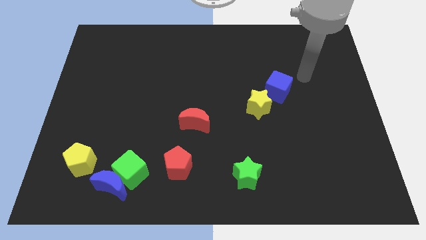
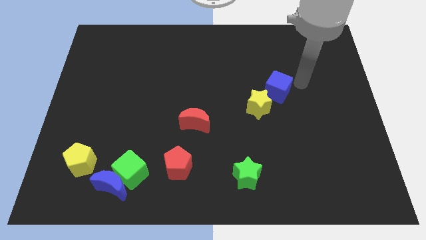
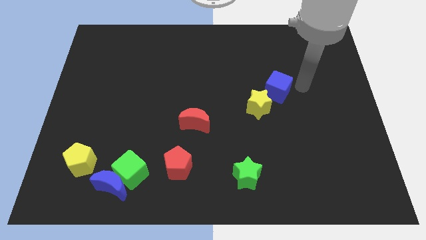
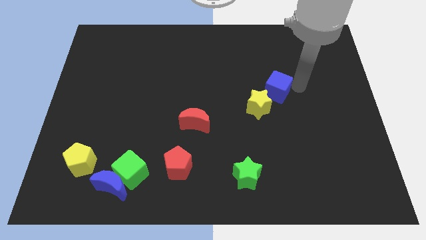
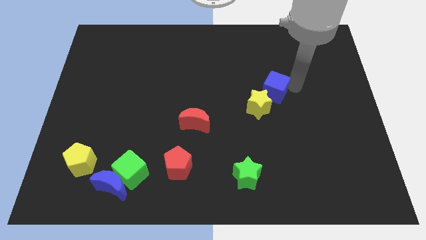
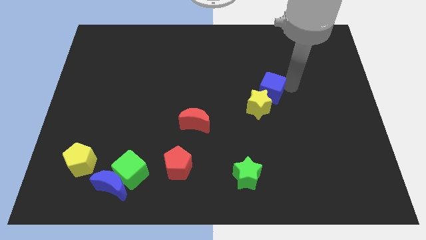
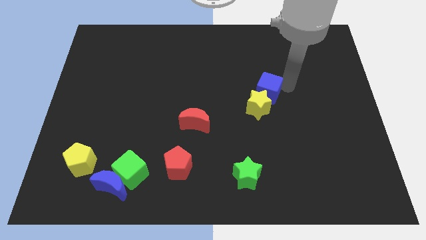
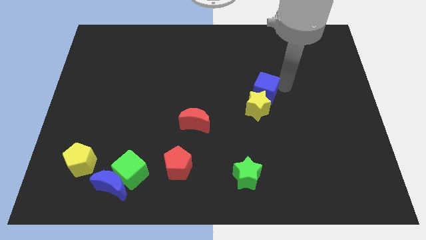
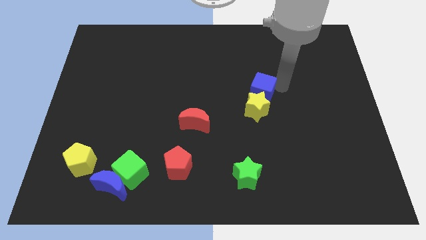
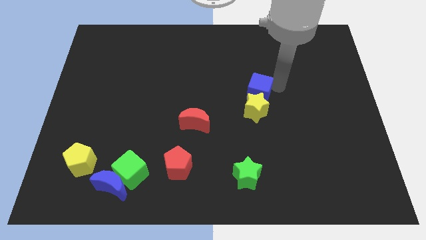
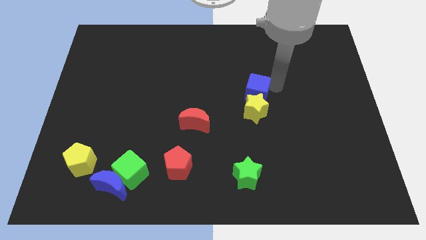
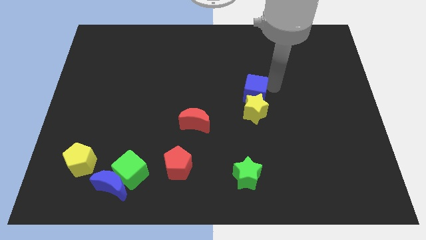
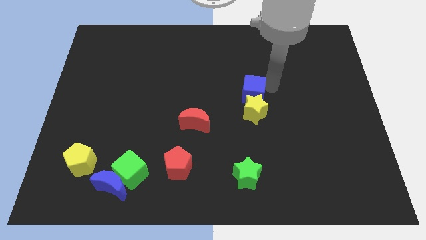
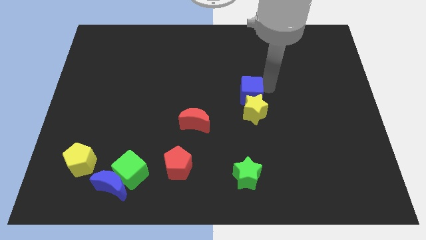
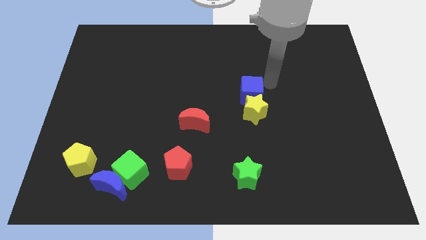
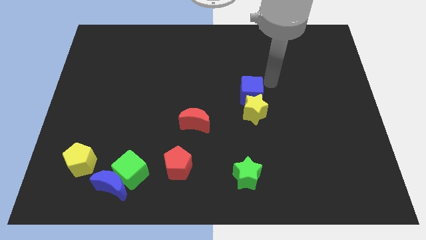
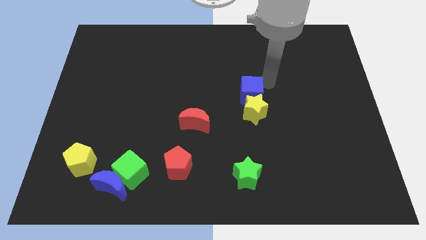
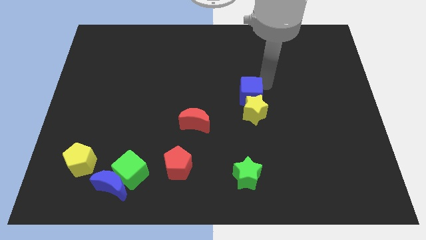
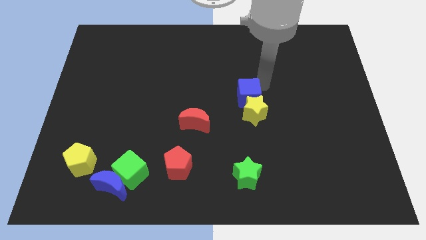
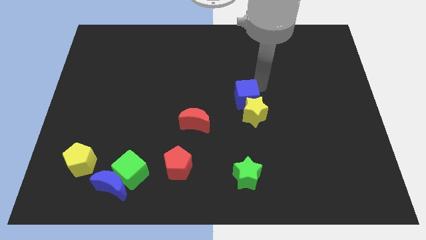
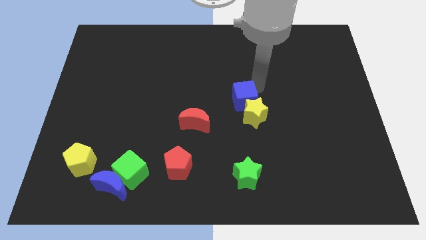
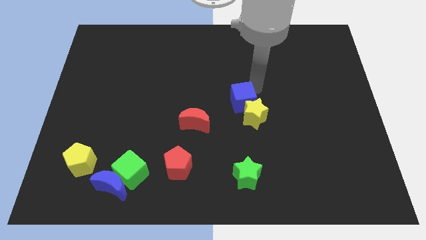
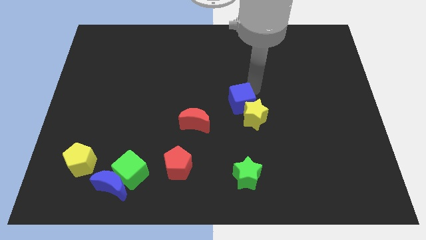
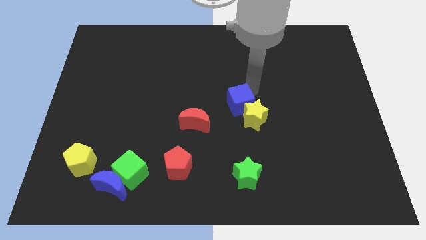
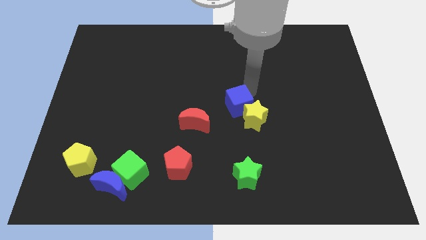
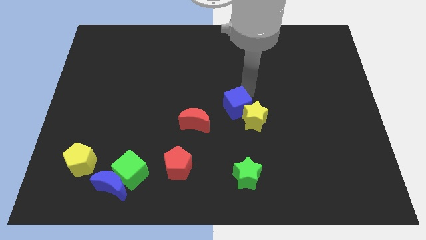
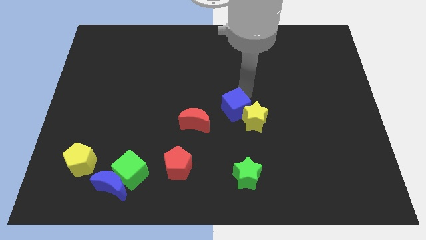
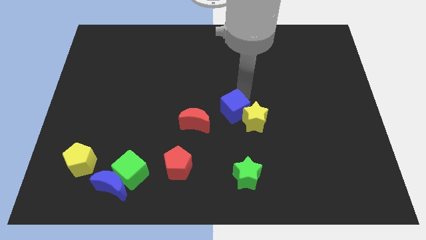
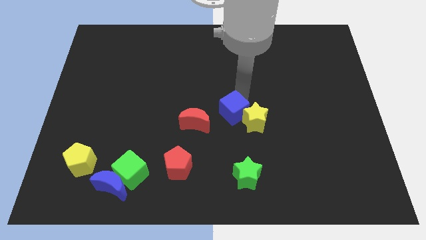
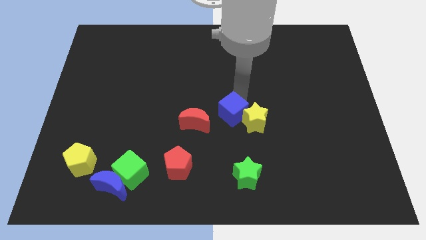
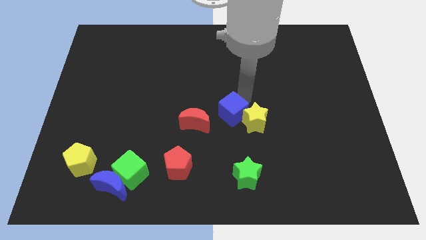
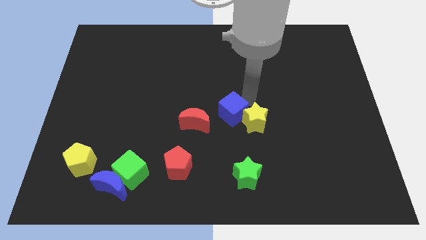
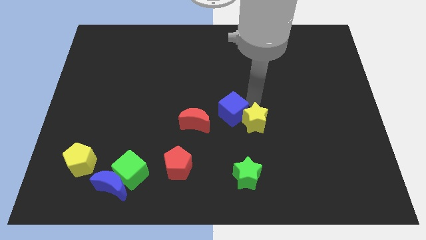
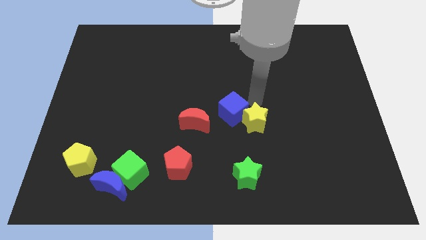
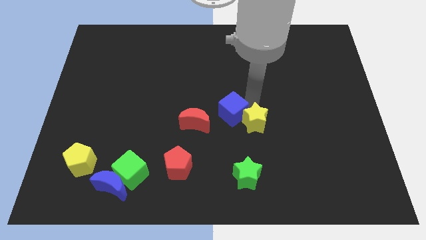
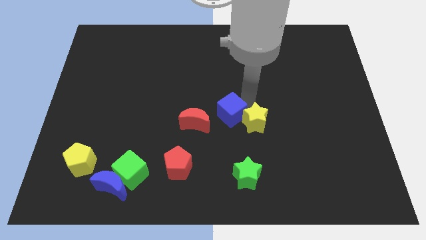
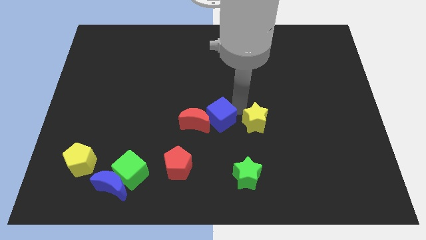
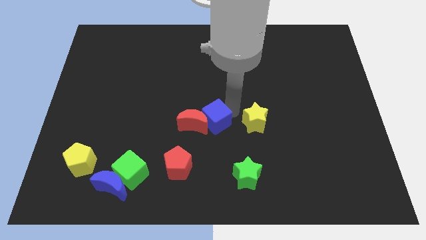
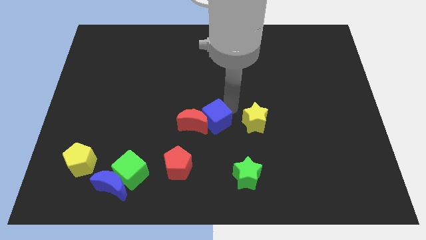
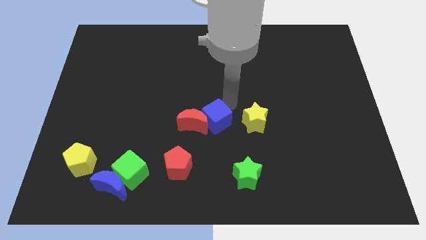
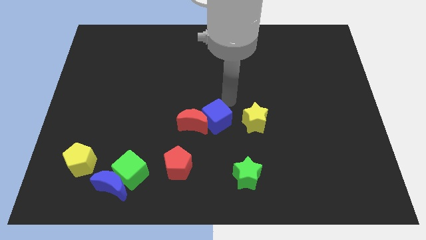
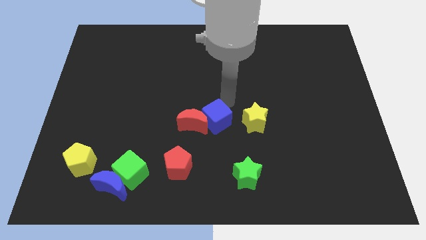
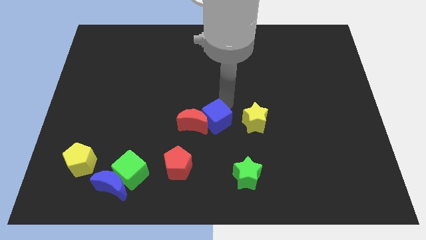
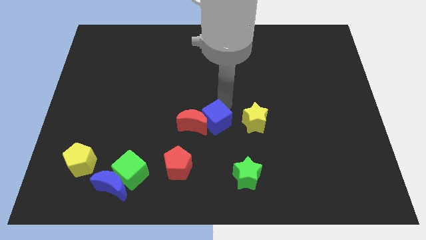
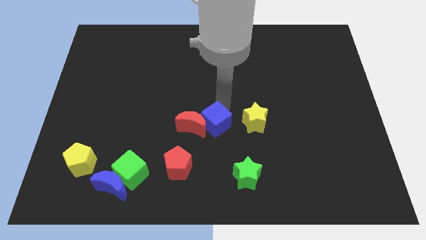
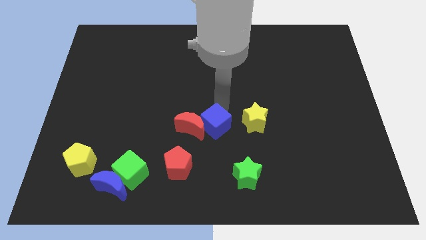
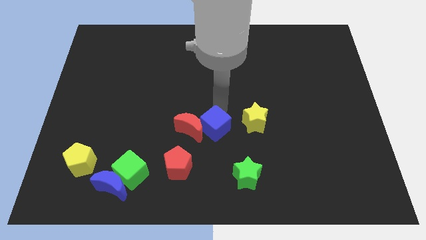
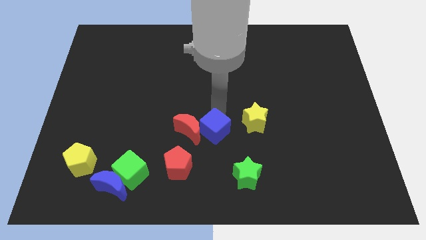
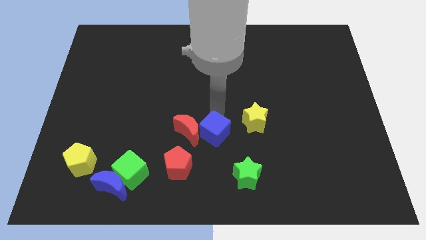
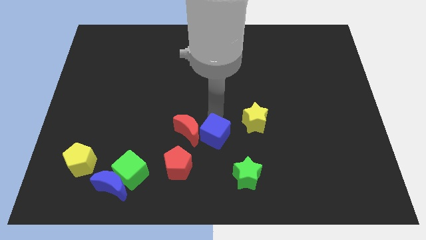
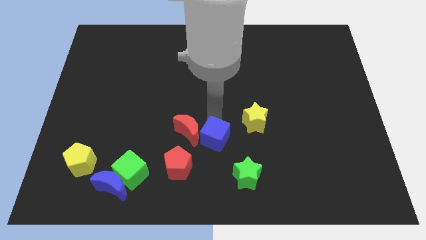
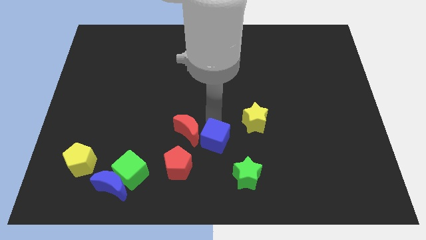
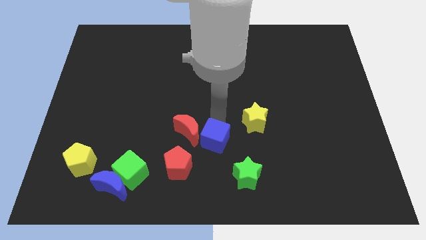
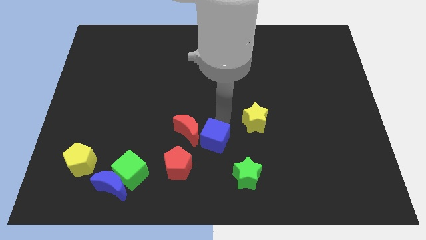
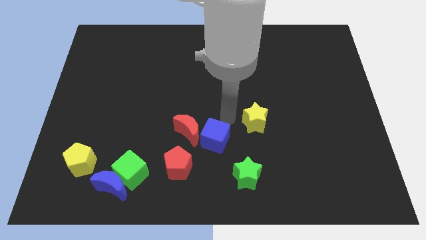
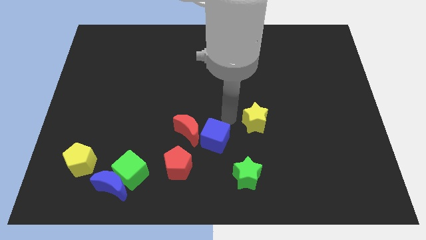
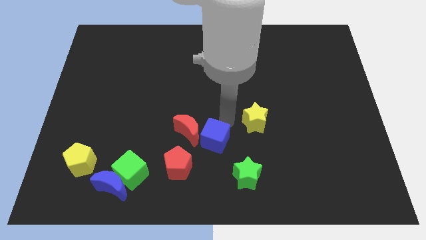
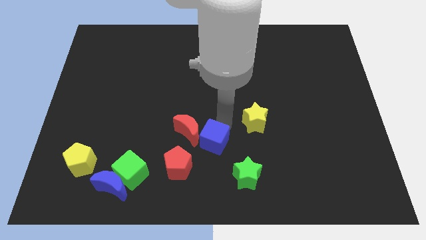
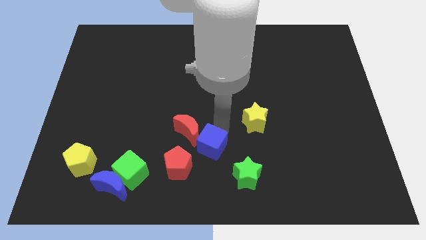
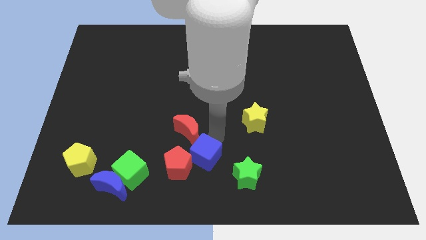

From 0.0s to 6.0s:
put the blue cube to the left side of the green star

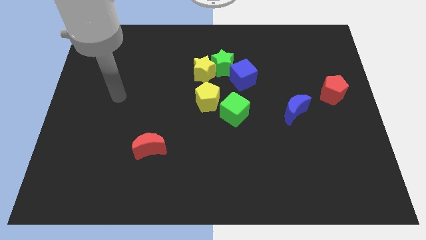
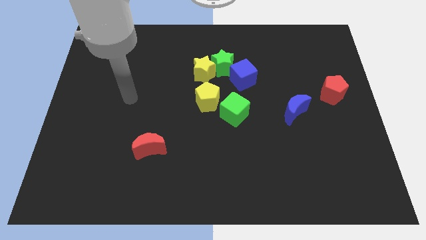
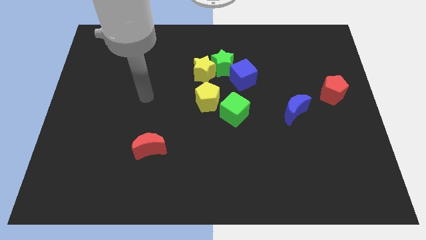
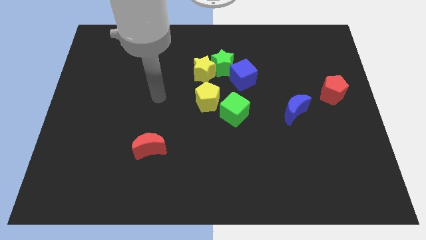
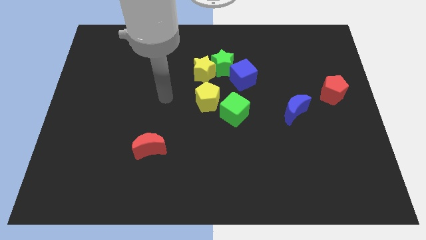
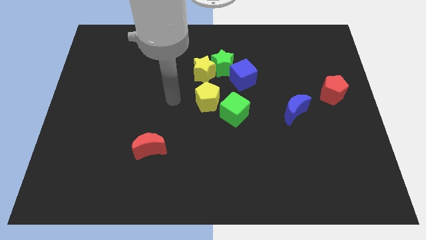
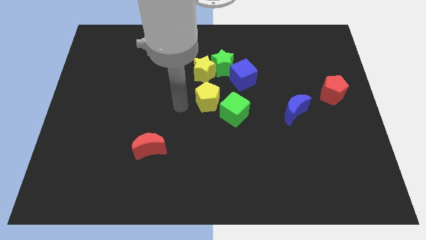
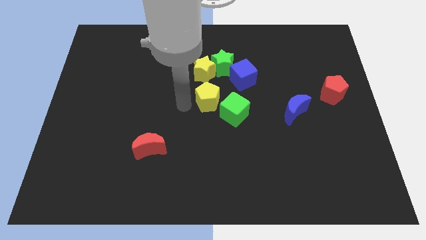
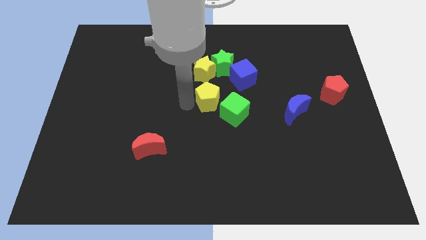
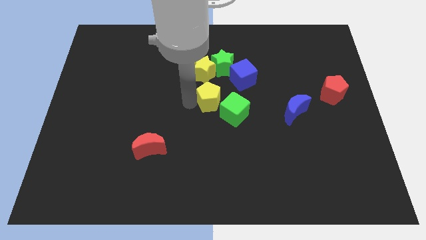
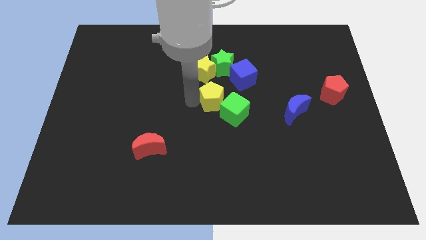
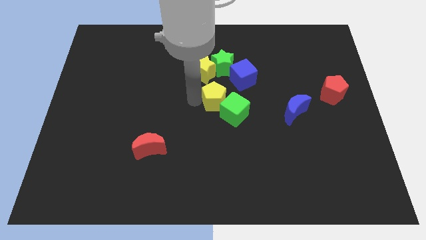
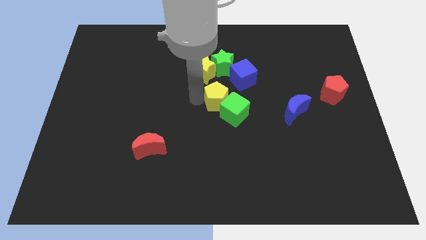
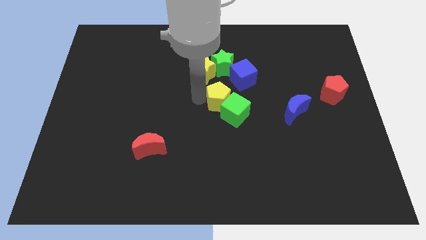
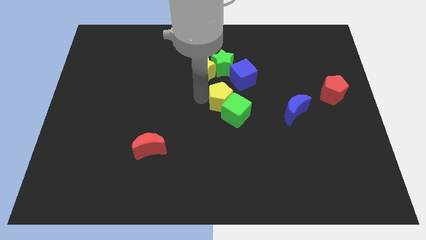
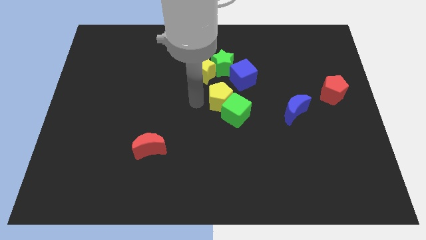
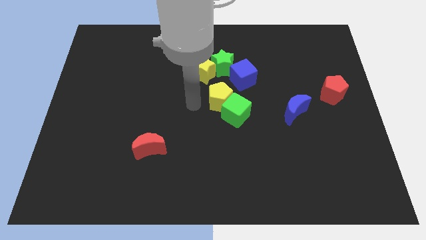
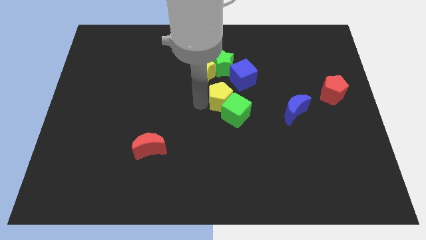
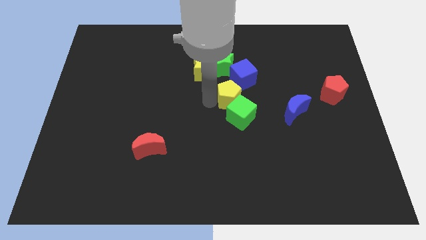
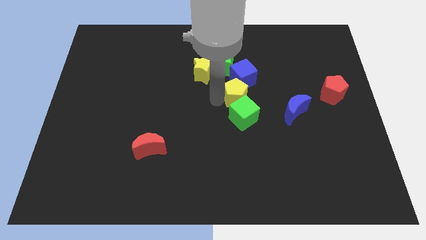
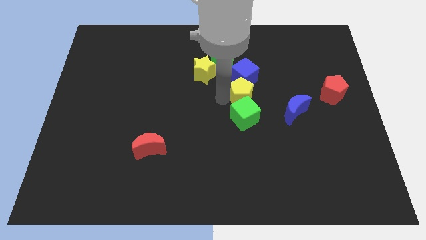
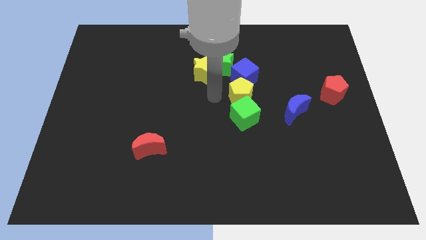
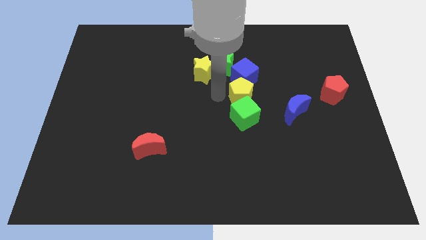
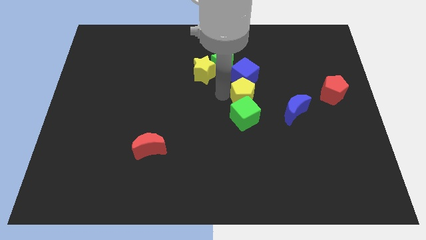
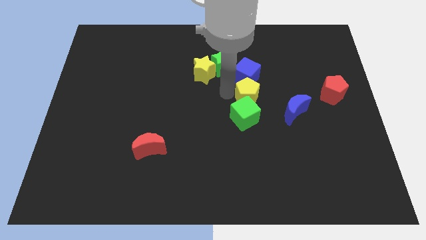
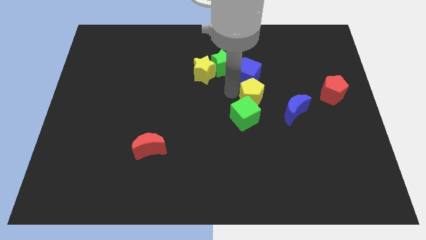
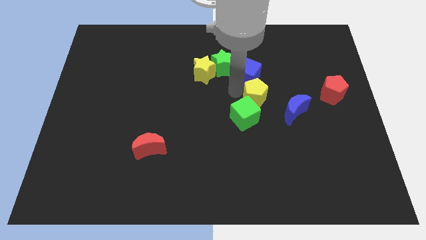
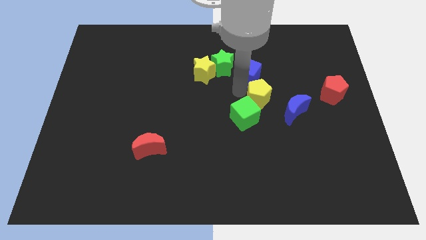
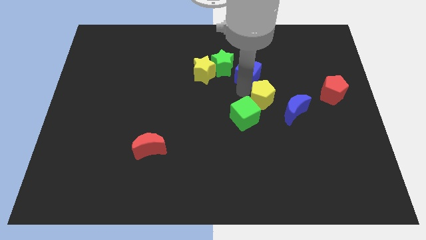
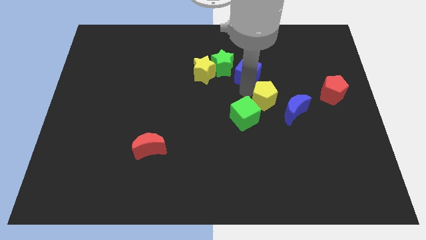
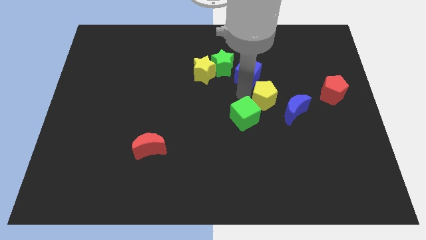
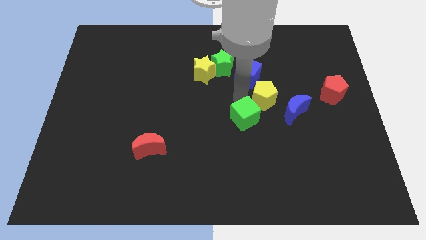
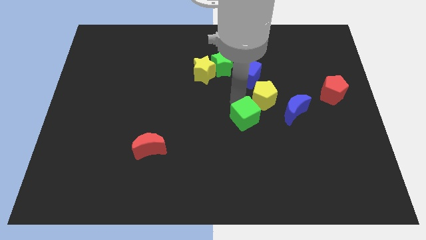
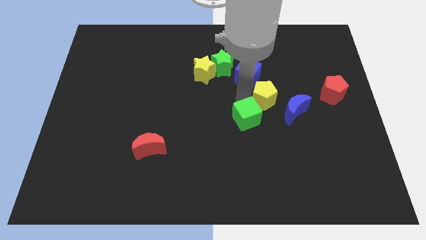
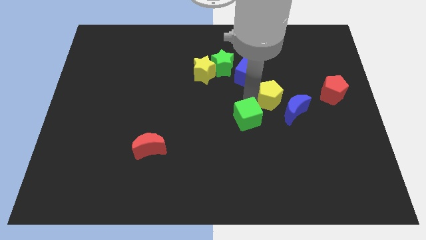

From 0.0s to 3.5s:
push the yellow pentagon just left of the red pentagon
